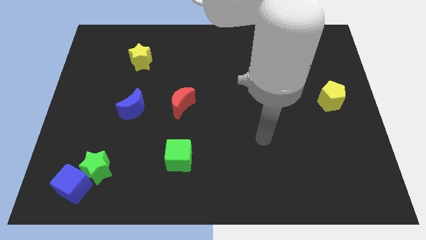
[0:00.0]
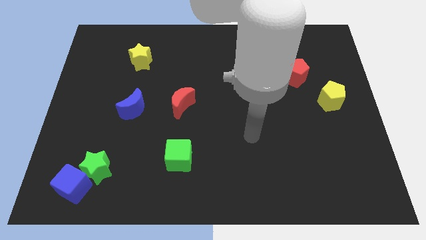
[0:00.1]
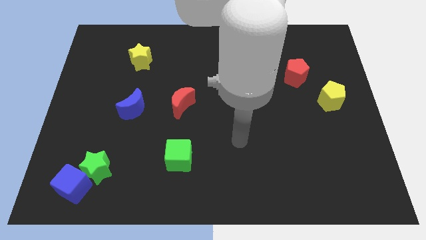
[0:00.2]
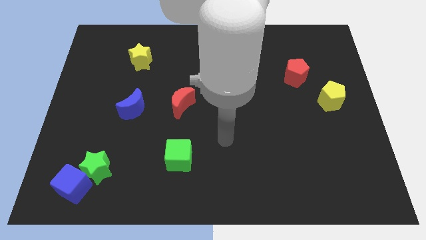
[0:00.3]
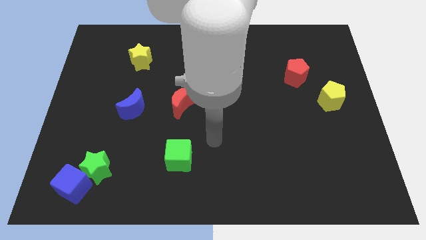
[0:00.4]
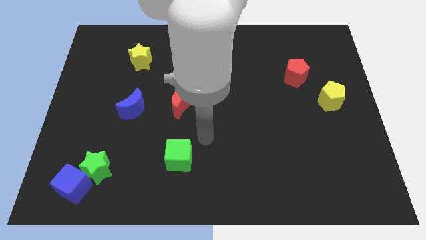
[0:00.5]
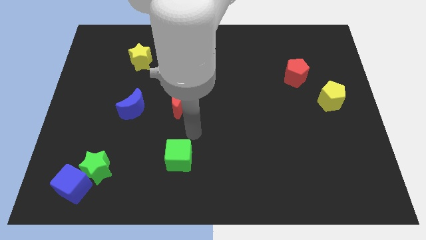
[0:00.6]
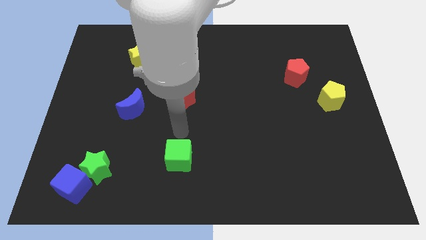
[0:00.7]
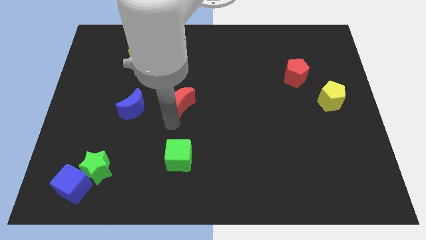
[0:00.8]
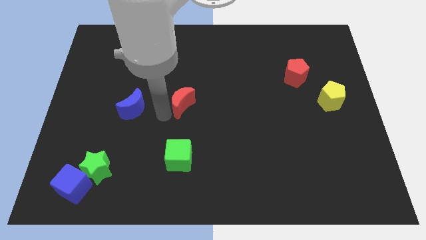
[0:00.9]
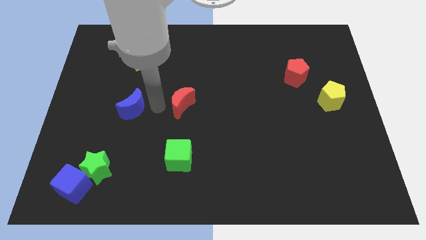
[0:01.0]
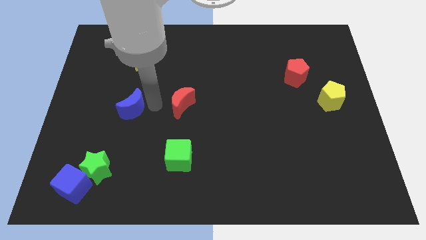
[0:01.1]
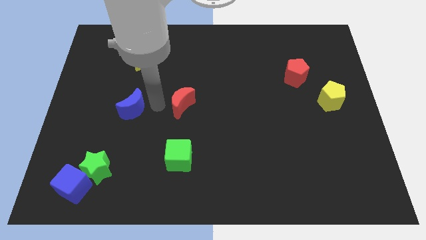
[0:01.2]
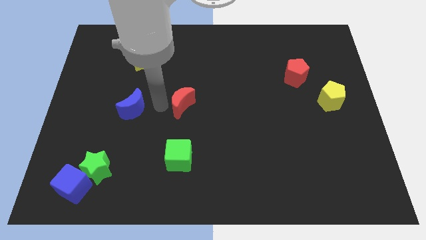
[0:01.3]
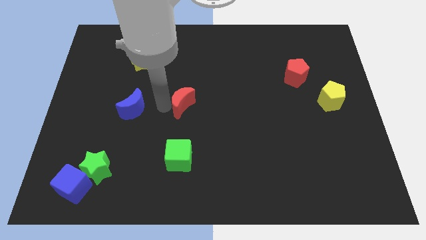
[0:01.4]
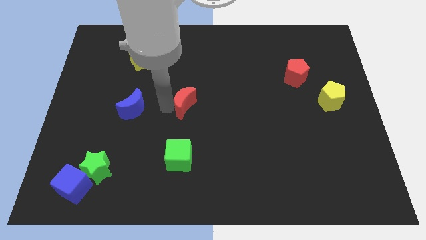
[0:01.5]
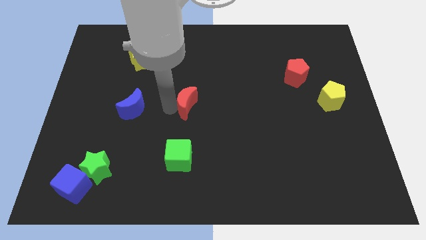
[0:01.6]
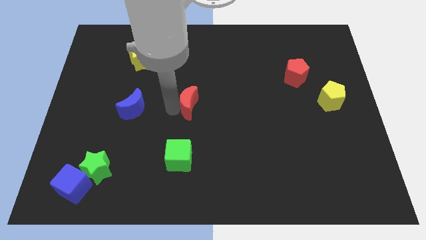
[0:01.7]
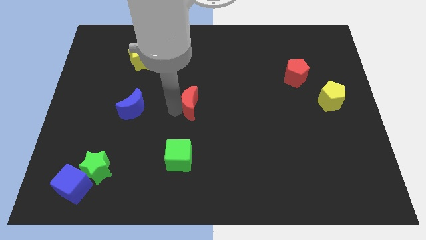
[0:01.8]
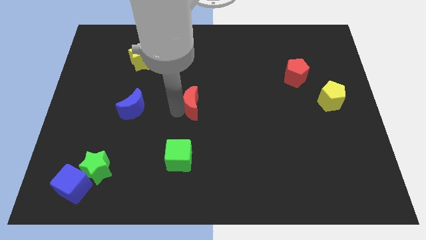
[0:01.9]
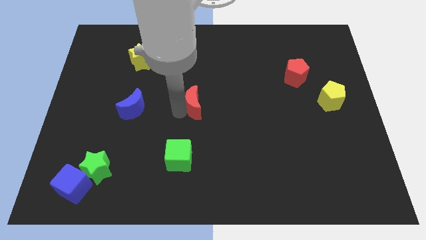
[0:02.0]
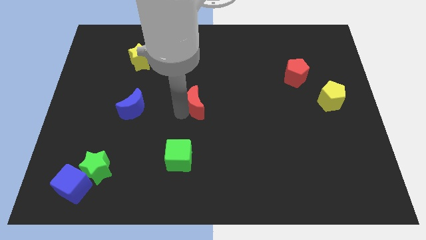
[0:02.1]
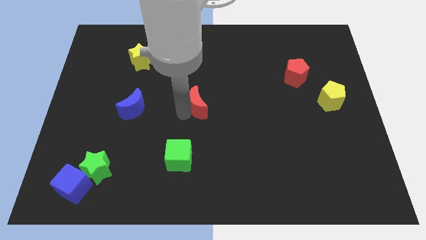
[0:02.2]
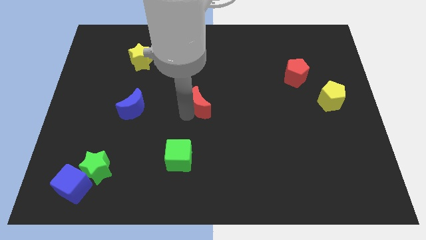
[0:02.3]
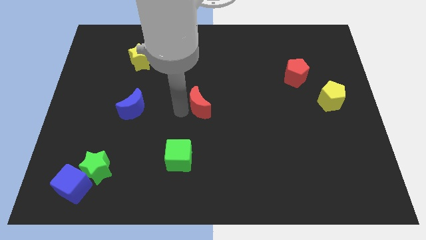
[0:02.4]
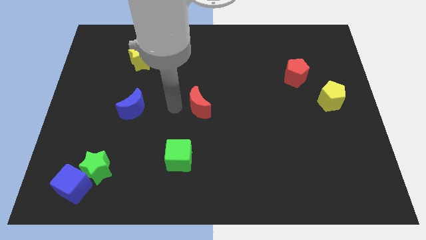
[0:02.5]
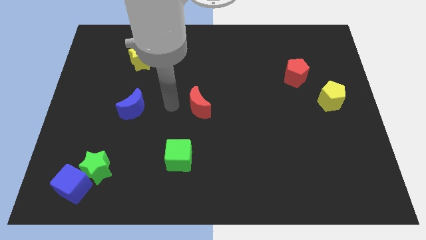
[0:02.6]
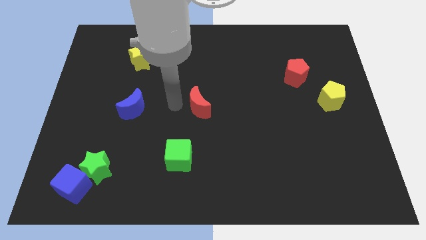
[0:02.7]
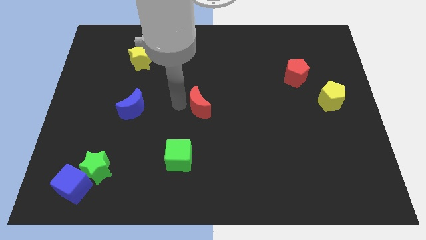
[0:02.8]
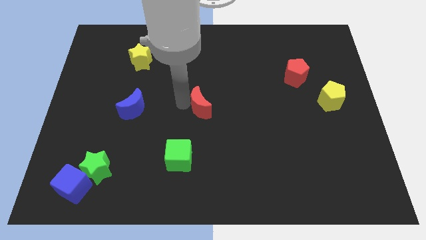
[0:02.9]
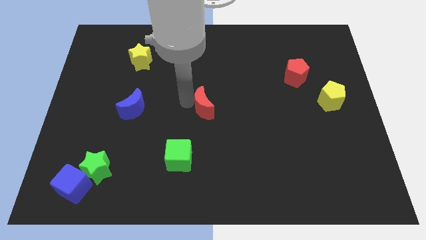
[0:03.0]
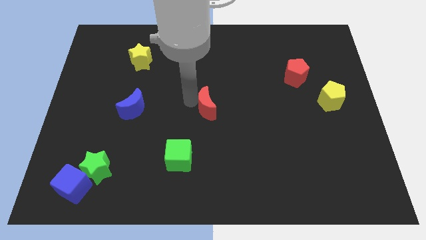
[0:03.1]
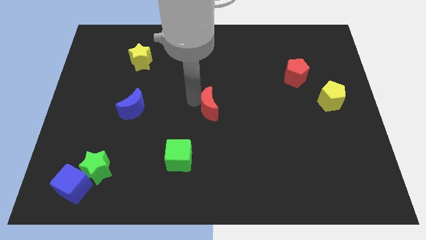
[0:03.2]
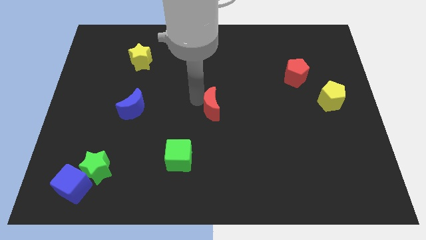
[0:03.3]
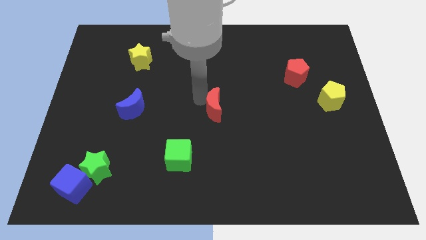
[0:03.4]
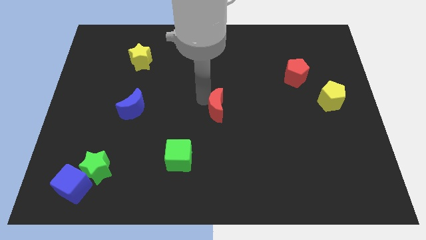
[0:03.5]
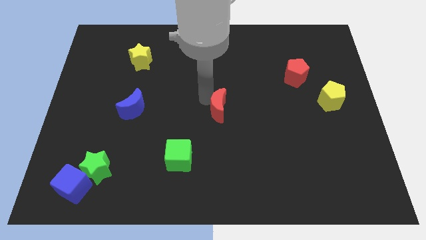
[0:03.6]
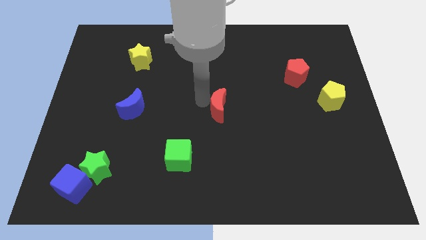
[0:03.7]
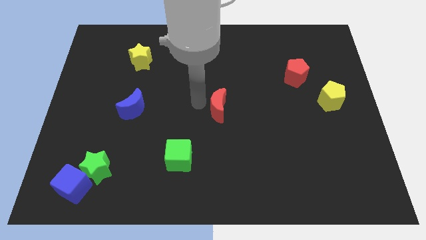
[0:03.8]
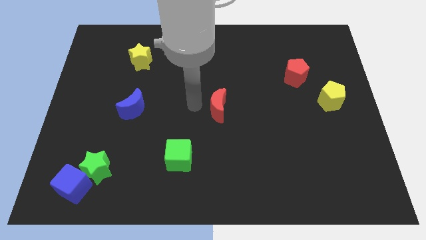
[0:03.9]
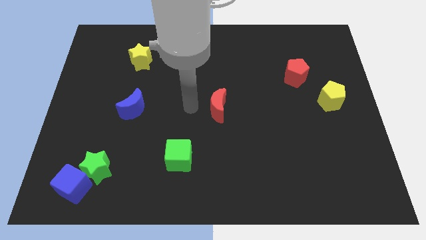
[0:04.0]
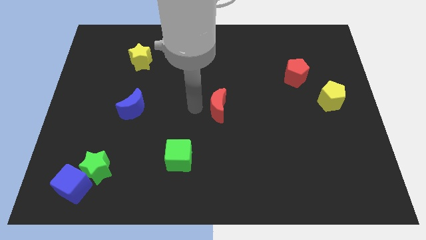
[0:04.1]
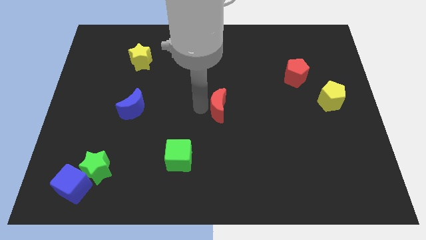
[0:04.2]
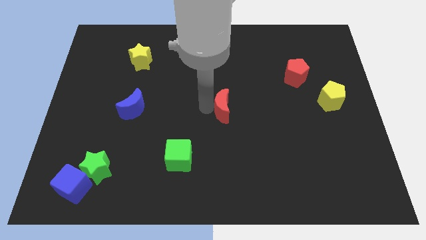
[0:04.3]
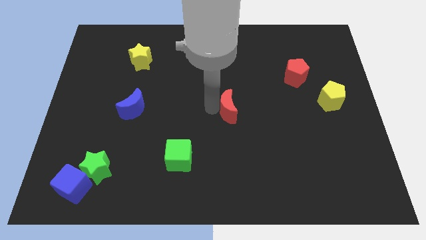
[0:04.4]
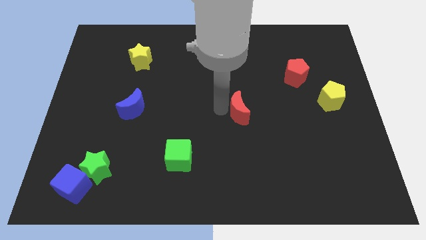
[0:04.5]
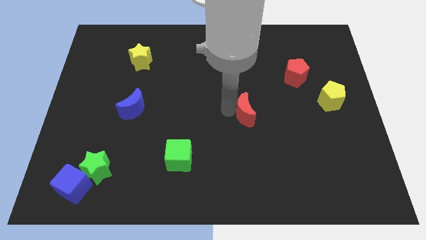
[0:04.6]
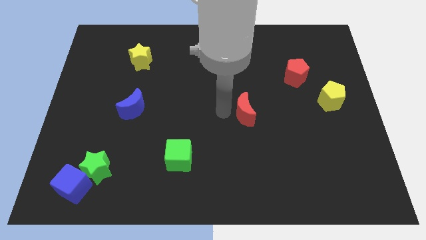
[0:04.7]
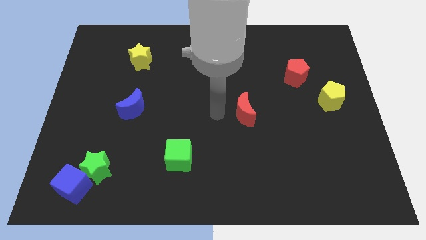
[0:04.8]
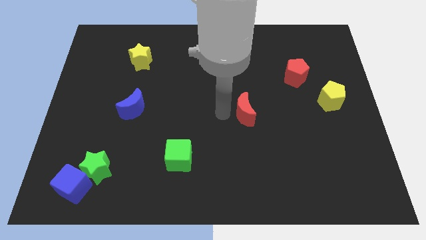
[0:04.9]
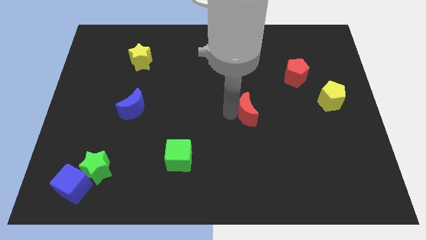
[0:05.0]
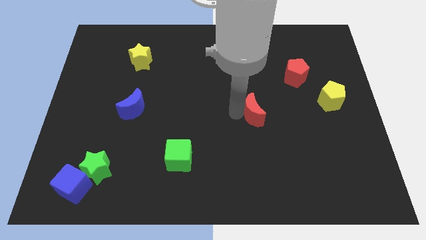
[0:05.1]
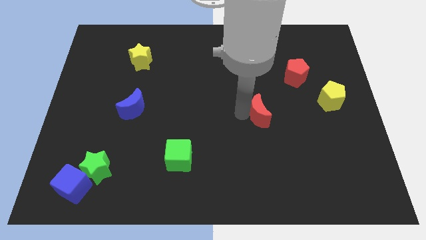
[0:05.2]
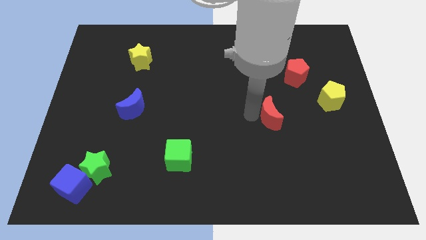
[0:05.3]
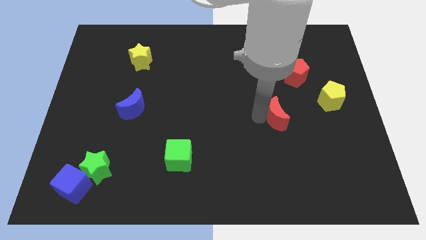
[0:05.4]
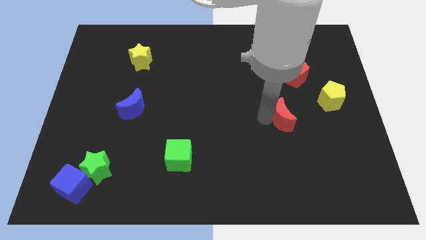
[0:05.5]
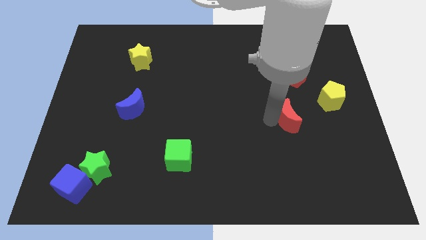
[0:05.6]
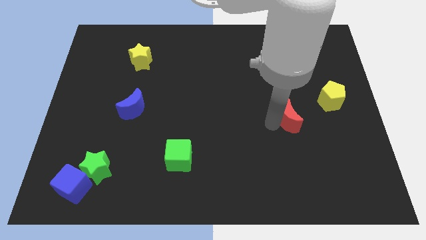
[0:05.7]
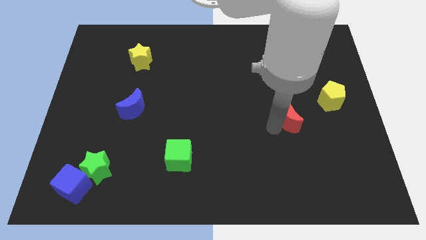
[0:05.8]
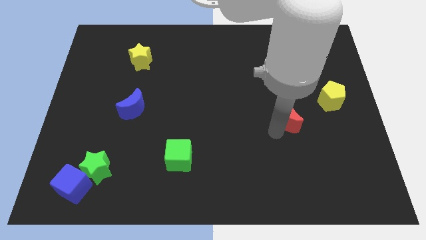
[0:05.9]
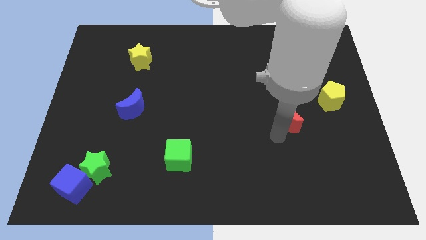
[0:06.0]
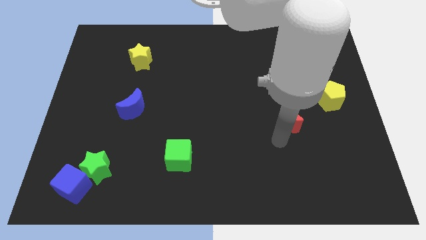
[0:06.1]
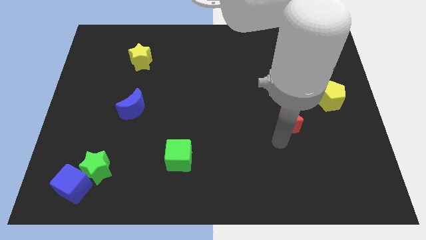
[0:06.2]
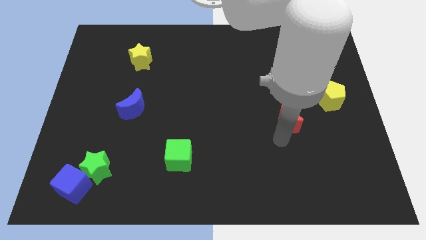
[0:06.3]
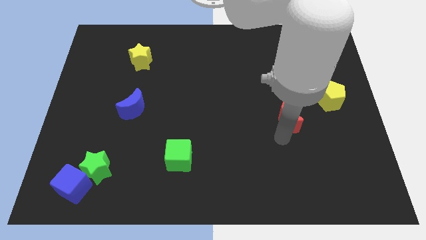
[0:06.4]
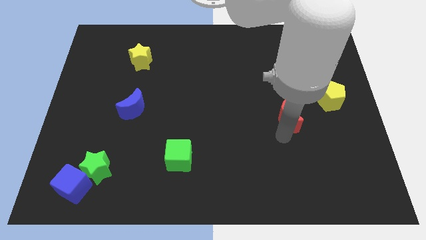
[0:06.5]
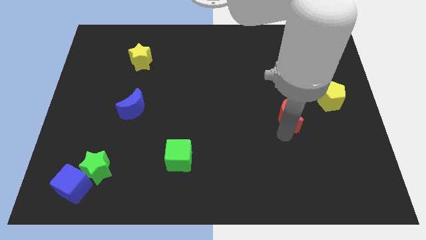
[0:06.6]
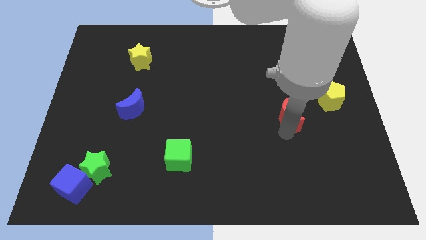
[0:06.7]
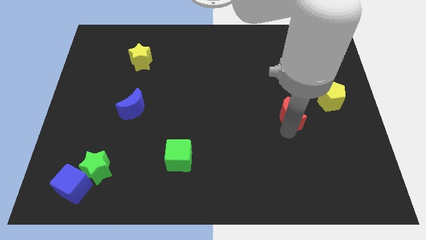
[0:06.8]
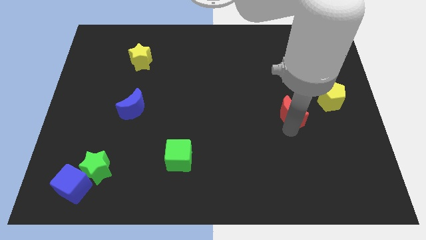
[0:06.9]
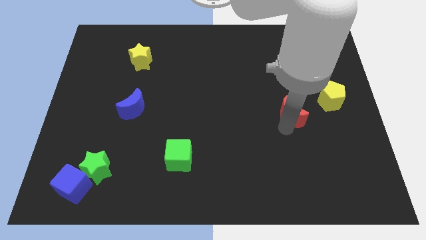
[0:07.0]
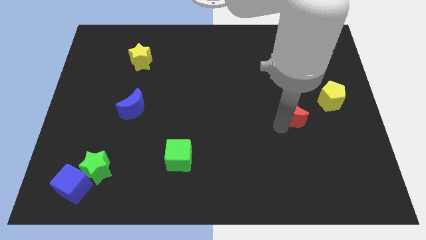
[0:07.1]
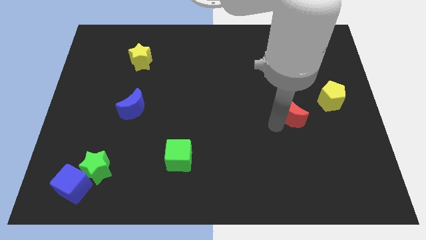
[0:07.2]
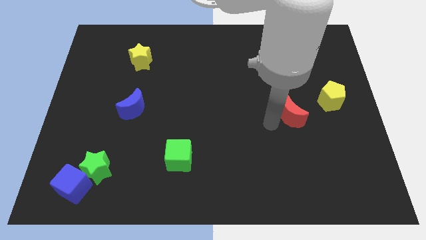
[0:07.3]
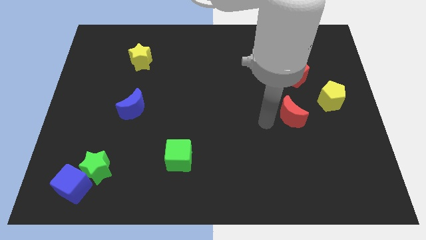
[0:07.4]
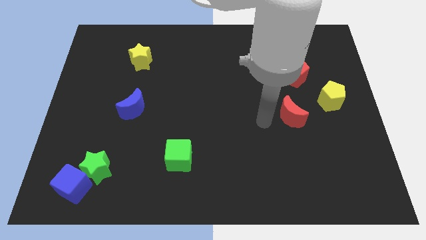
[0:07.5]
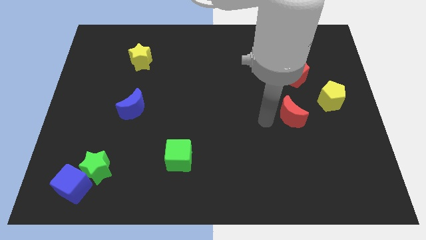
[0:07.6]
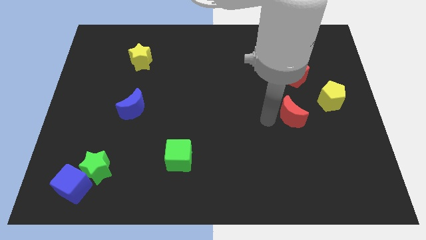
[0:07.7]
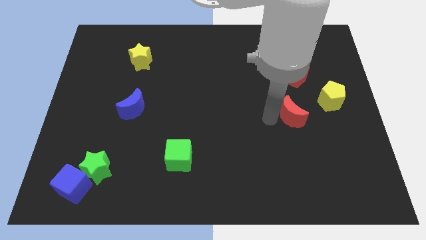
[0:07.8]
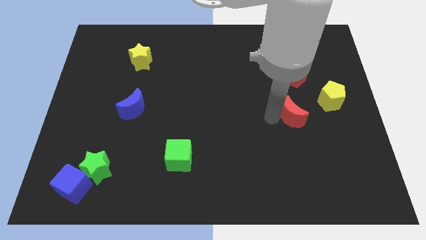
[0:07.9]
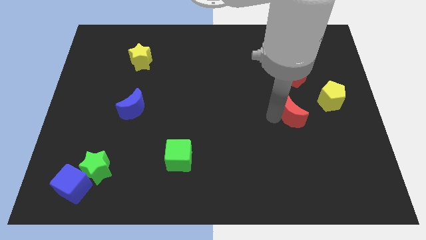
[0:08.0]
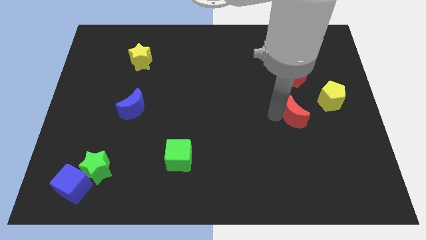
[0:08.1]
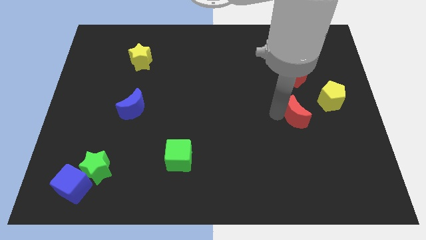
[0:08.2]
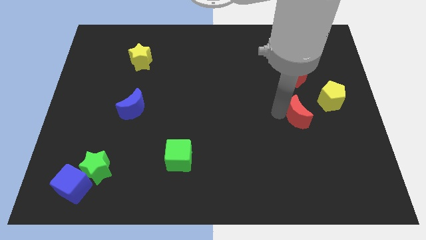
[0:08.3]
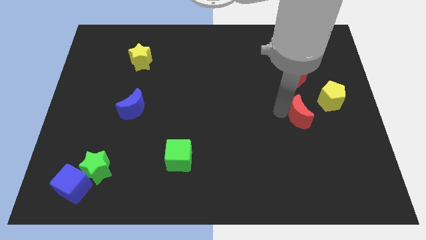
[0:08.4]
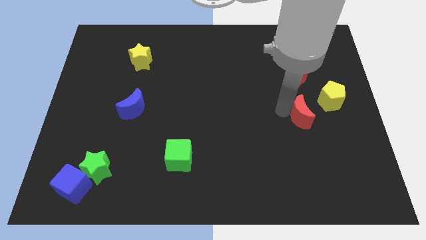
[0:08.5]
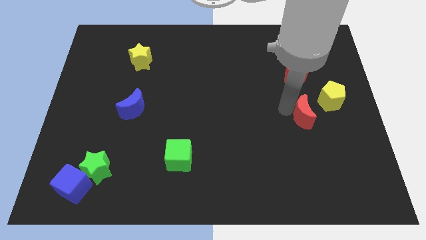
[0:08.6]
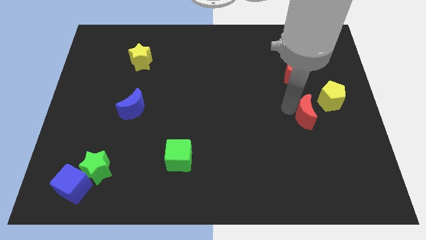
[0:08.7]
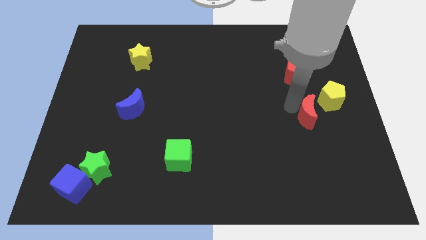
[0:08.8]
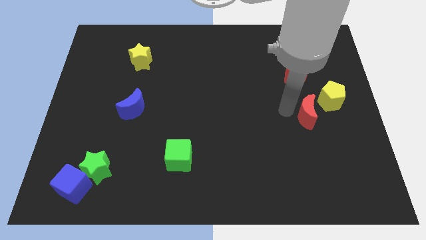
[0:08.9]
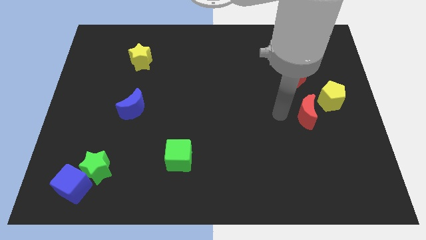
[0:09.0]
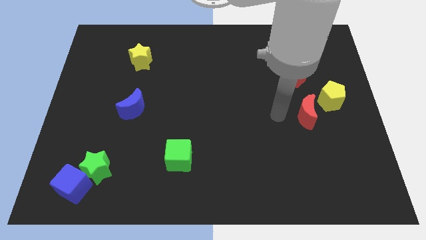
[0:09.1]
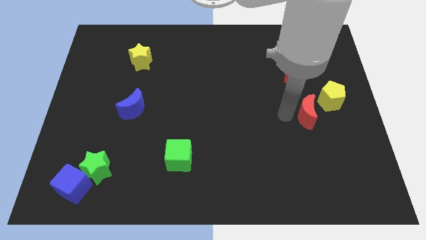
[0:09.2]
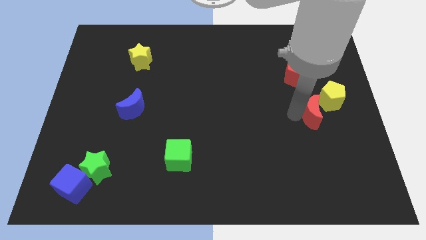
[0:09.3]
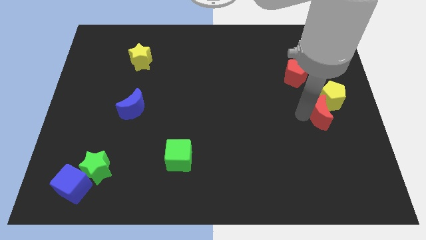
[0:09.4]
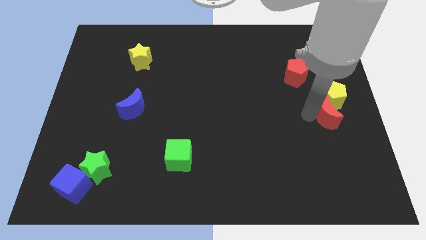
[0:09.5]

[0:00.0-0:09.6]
push the red moon to the center right
